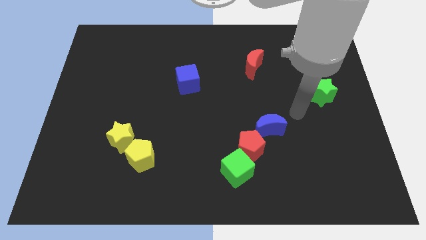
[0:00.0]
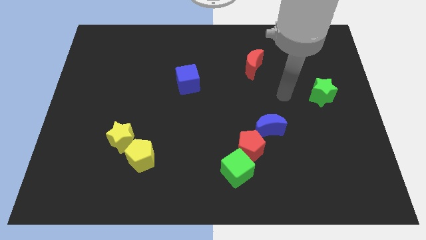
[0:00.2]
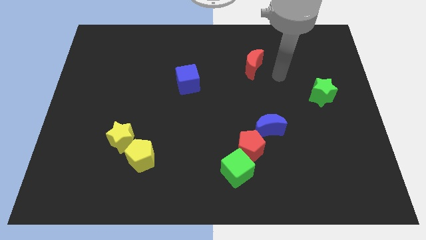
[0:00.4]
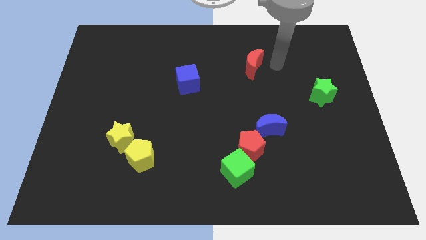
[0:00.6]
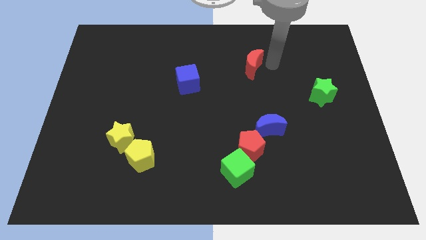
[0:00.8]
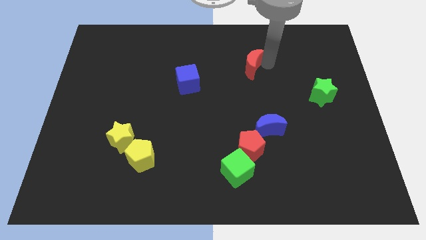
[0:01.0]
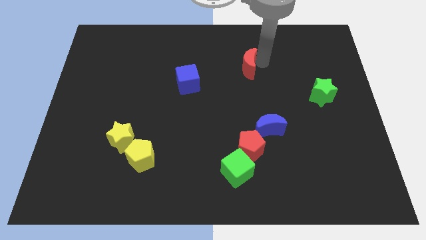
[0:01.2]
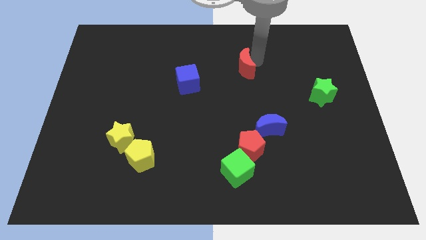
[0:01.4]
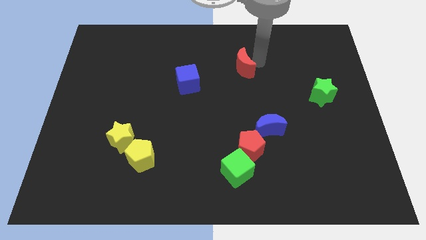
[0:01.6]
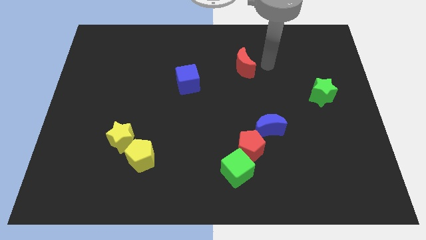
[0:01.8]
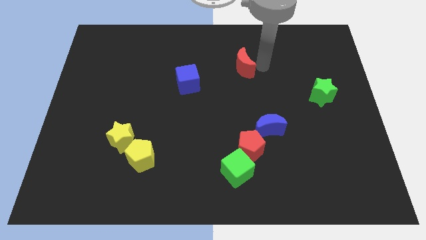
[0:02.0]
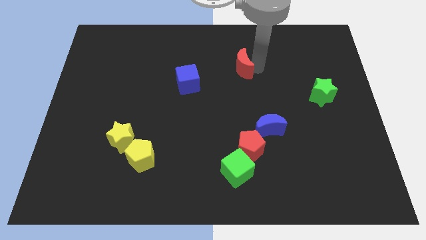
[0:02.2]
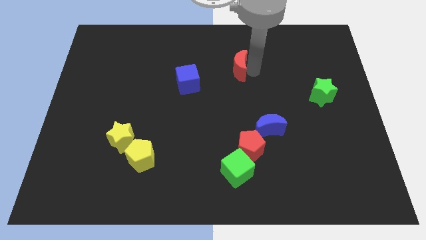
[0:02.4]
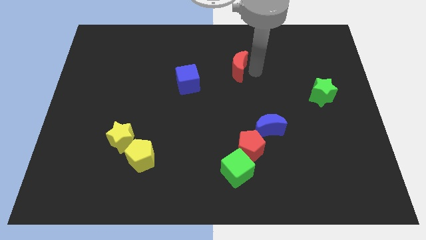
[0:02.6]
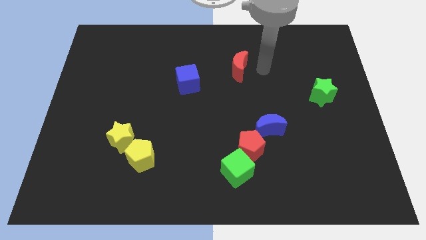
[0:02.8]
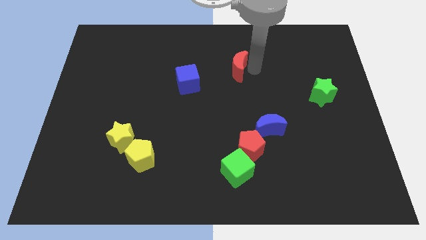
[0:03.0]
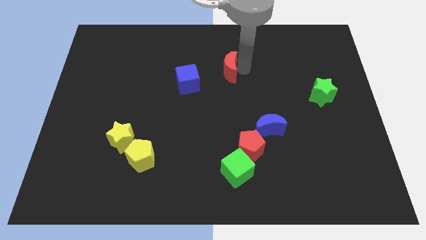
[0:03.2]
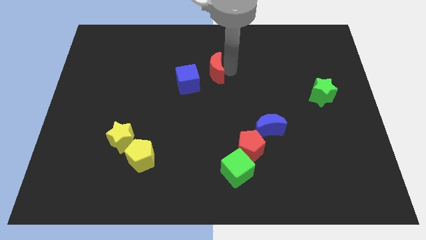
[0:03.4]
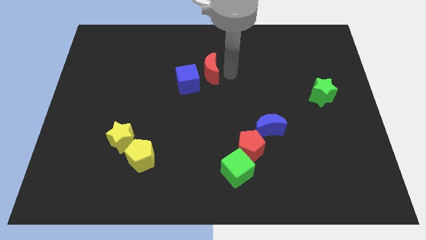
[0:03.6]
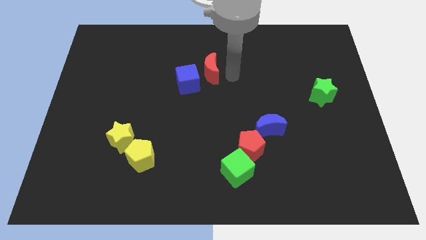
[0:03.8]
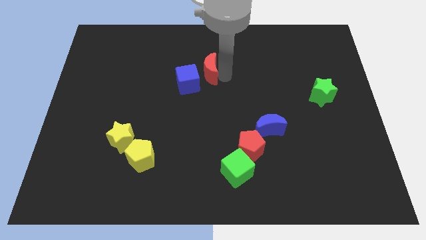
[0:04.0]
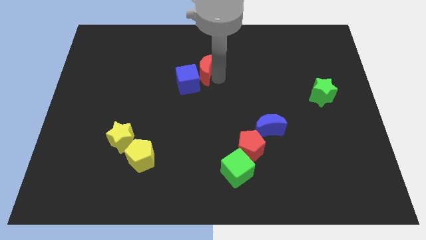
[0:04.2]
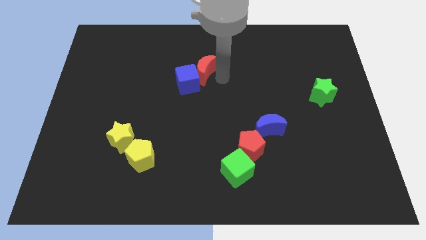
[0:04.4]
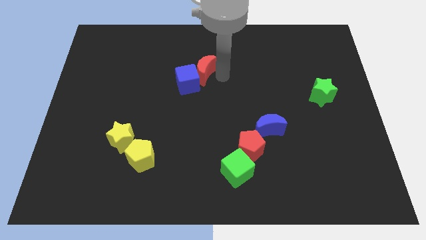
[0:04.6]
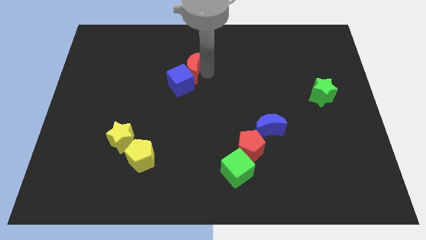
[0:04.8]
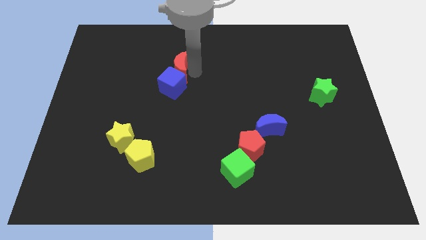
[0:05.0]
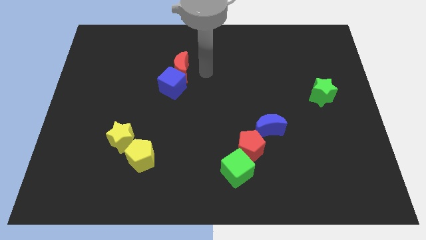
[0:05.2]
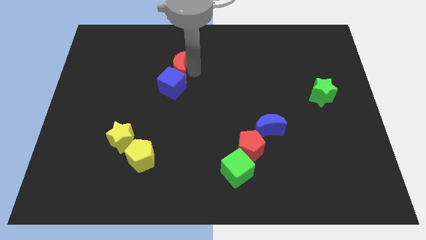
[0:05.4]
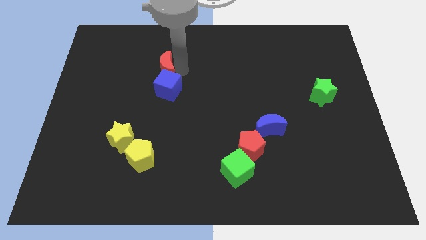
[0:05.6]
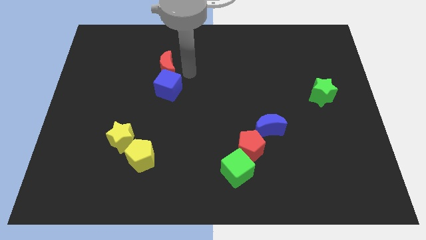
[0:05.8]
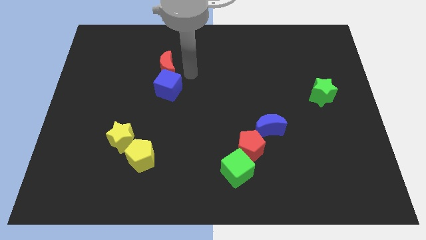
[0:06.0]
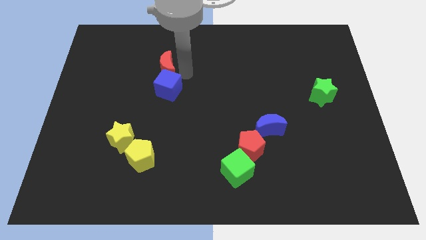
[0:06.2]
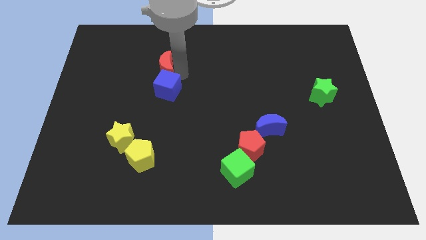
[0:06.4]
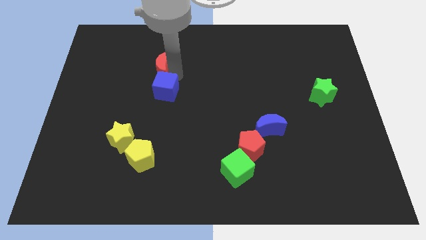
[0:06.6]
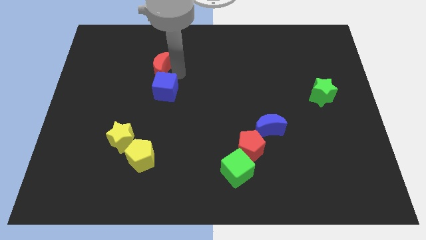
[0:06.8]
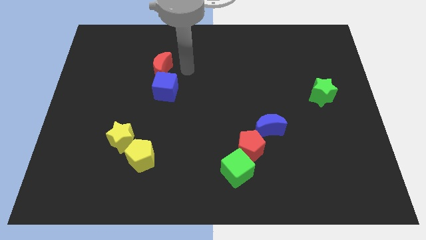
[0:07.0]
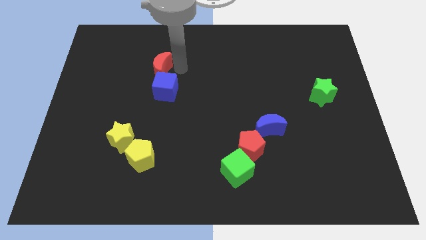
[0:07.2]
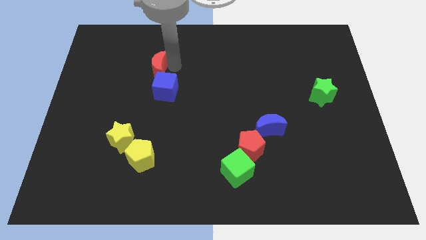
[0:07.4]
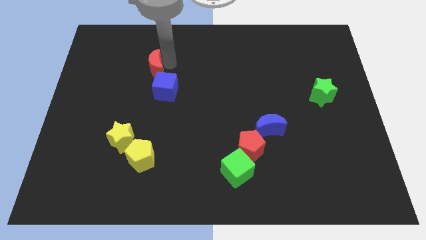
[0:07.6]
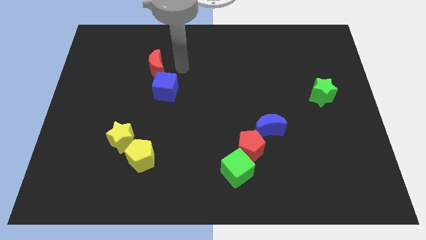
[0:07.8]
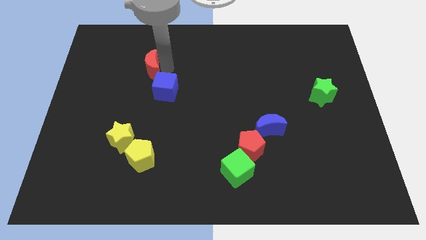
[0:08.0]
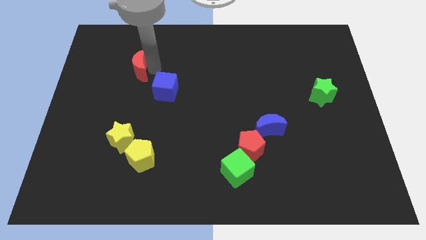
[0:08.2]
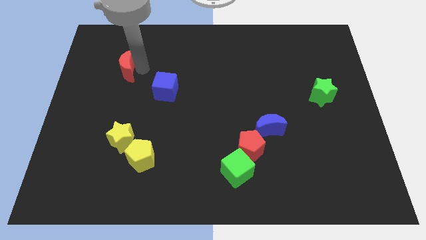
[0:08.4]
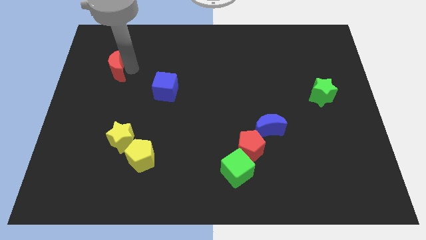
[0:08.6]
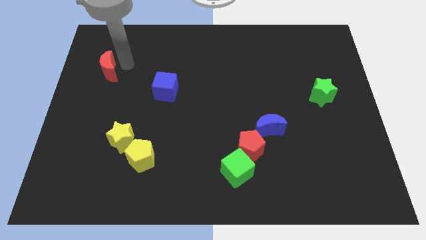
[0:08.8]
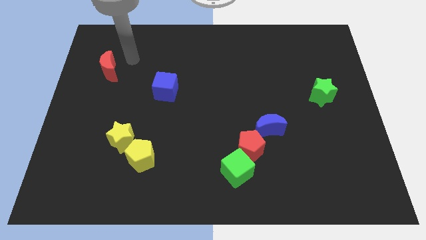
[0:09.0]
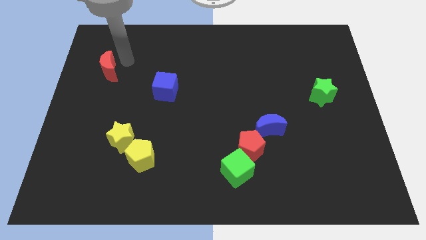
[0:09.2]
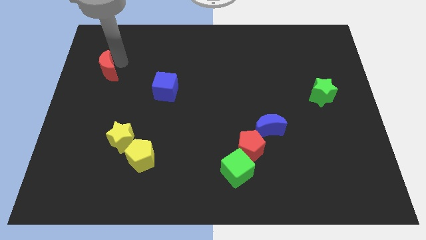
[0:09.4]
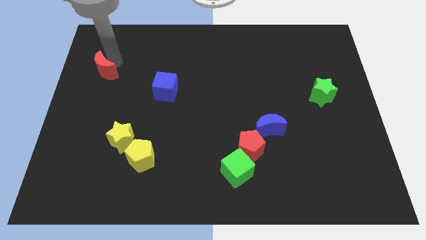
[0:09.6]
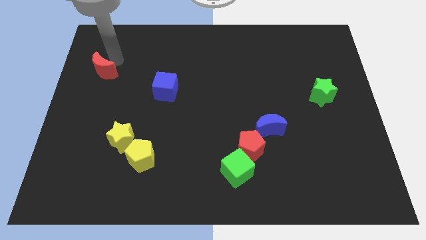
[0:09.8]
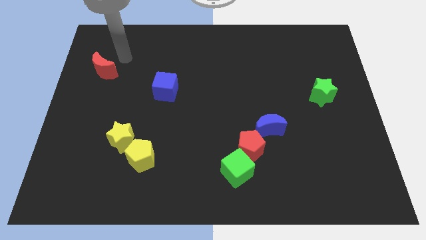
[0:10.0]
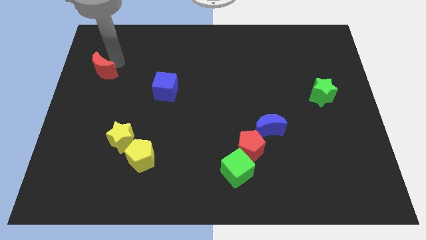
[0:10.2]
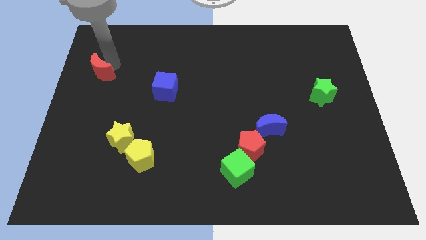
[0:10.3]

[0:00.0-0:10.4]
put the red moon to the left side of the board

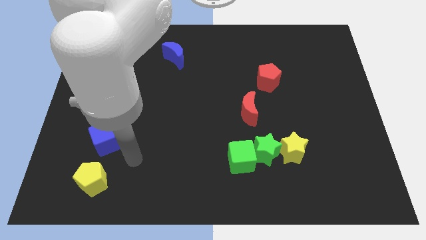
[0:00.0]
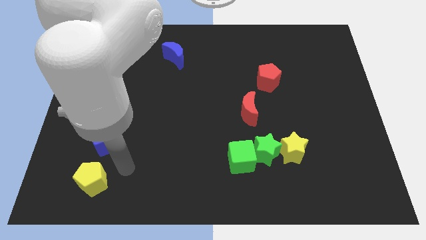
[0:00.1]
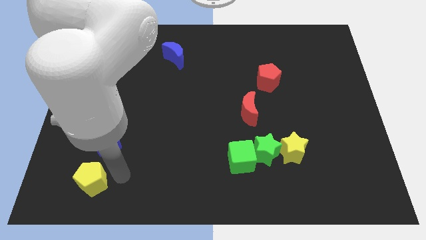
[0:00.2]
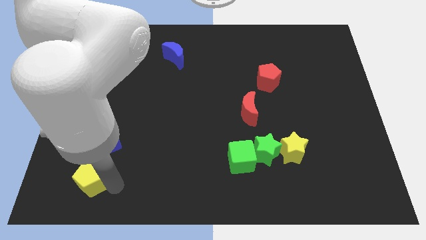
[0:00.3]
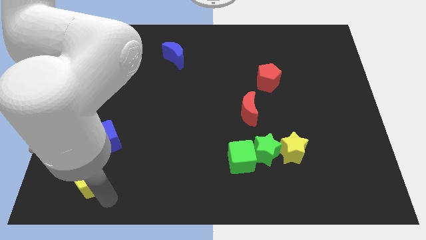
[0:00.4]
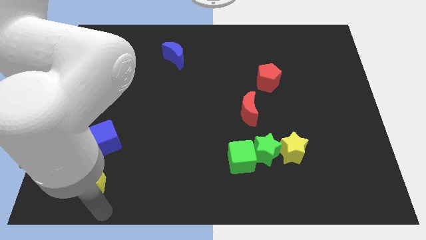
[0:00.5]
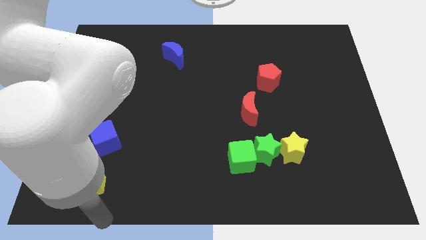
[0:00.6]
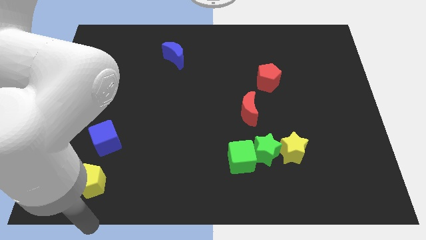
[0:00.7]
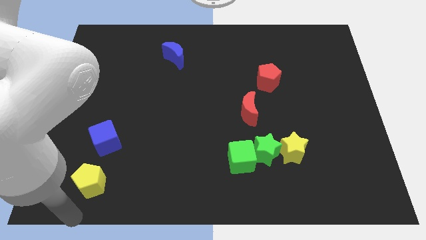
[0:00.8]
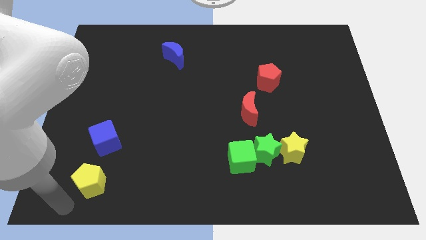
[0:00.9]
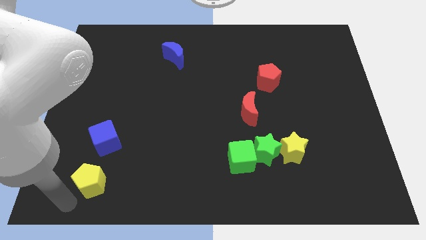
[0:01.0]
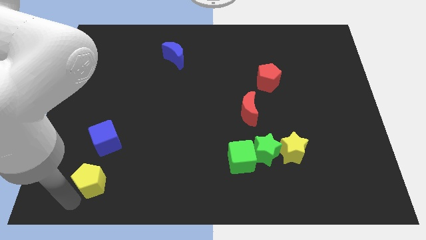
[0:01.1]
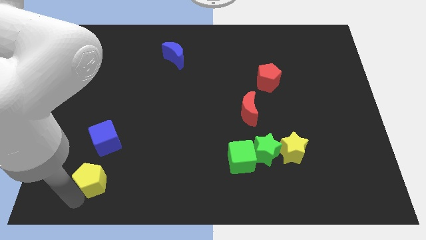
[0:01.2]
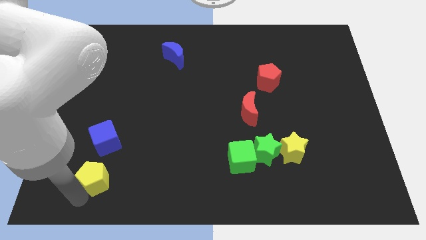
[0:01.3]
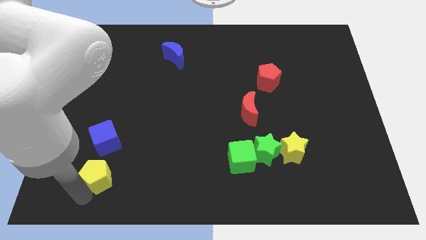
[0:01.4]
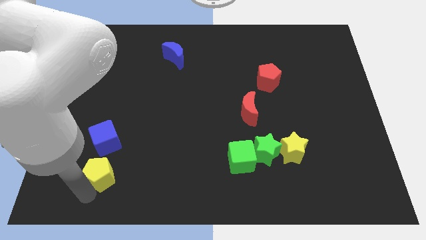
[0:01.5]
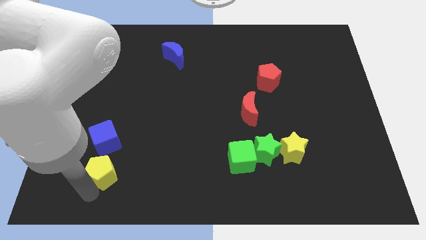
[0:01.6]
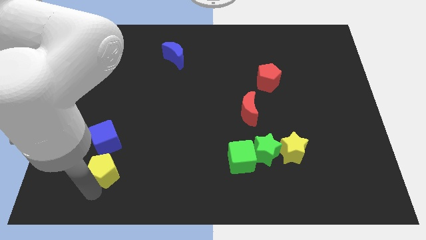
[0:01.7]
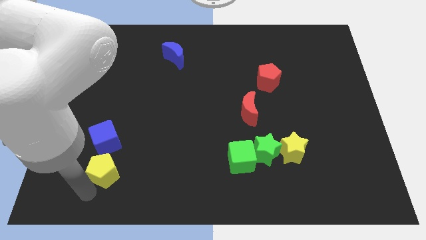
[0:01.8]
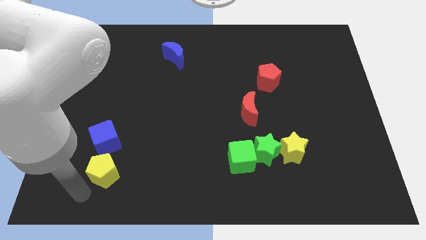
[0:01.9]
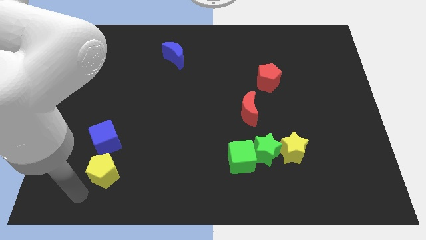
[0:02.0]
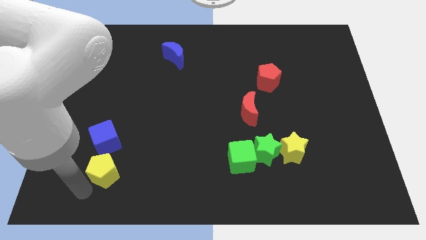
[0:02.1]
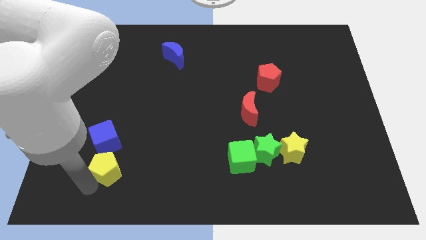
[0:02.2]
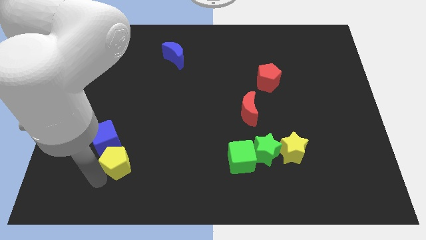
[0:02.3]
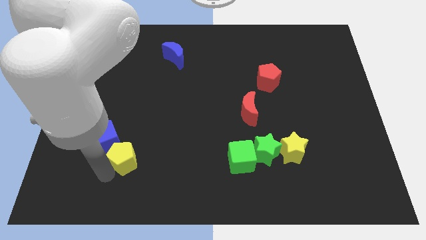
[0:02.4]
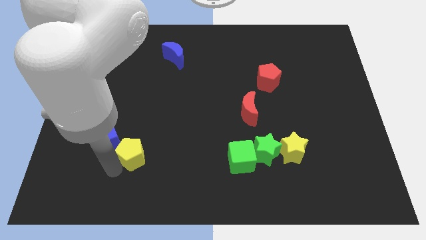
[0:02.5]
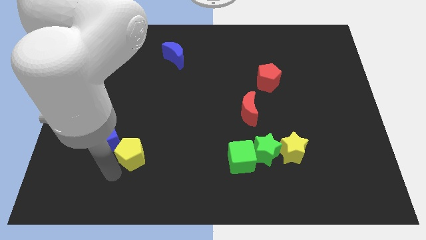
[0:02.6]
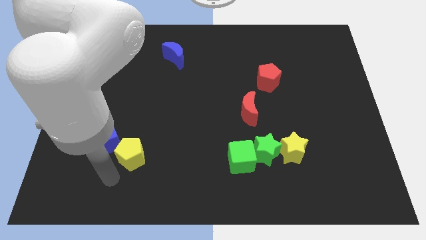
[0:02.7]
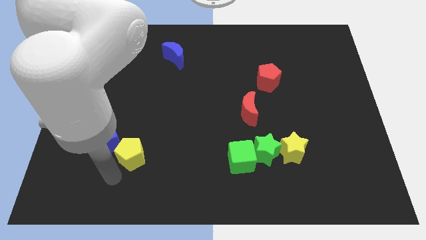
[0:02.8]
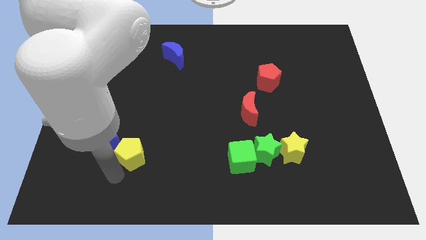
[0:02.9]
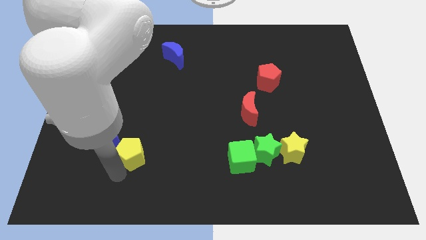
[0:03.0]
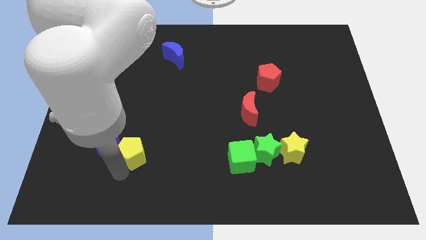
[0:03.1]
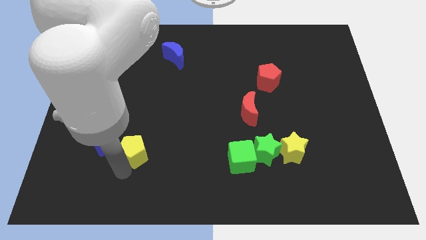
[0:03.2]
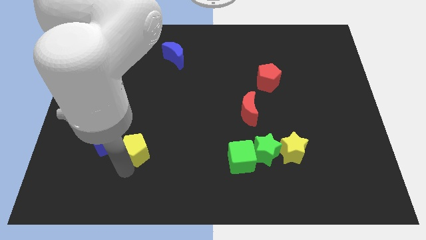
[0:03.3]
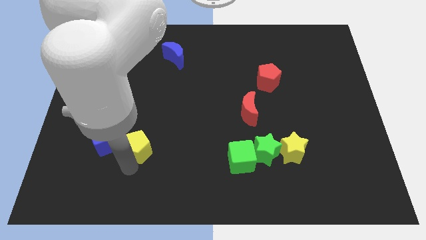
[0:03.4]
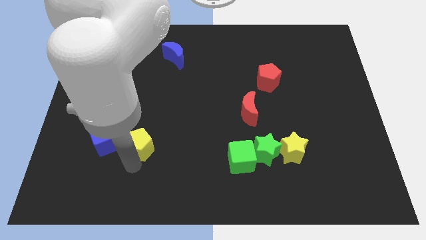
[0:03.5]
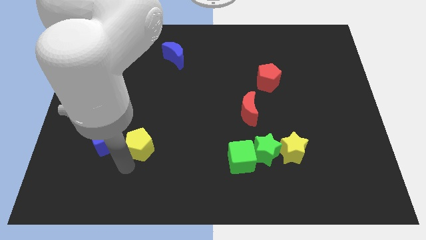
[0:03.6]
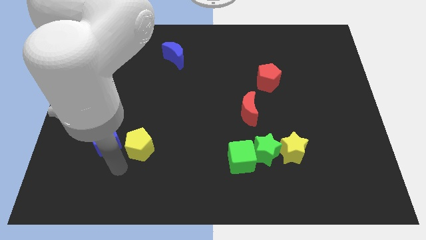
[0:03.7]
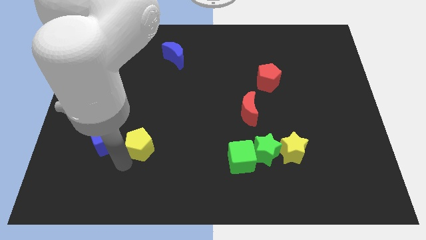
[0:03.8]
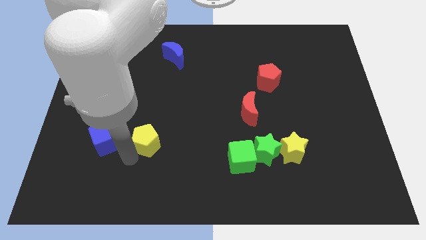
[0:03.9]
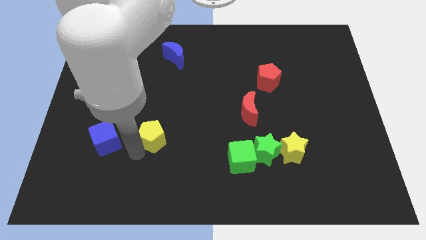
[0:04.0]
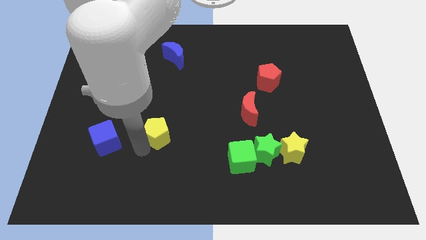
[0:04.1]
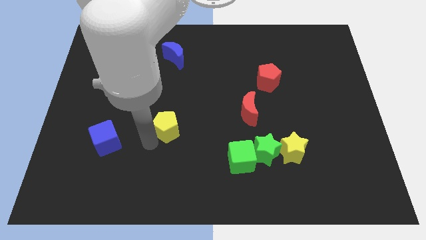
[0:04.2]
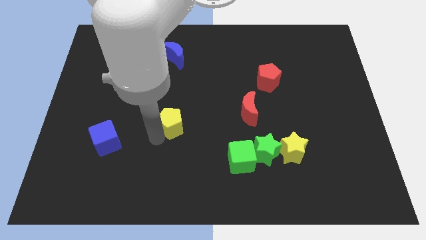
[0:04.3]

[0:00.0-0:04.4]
move the yellow pentagon to the middle
